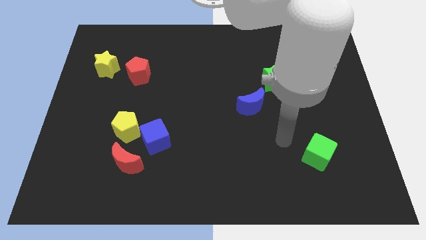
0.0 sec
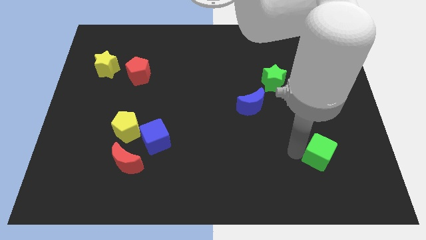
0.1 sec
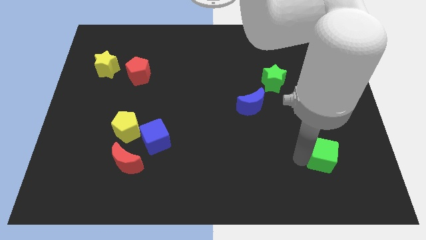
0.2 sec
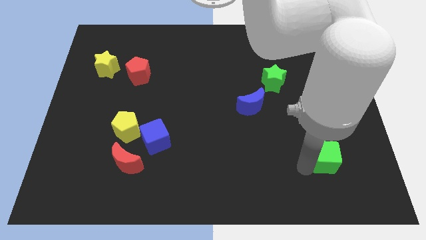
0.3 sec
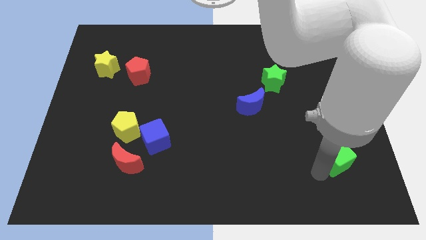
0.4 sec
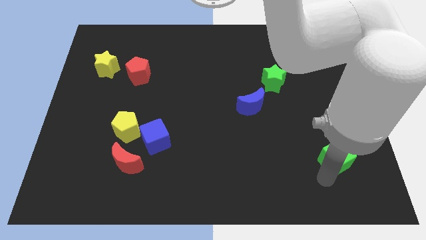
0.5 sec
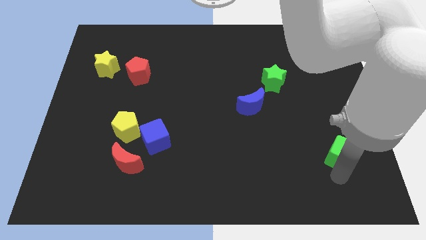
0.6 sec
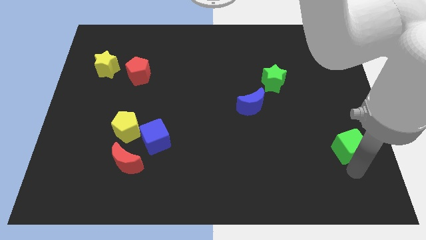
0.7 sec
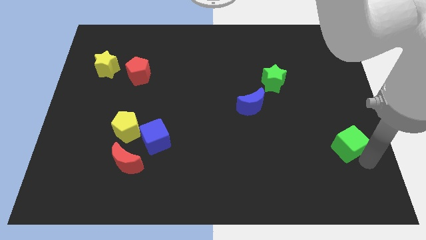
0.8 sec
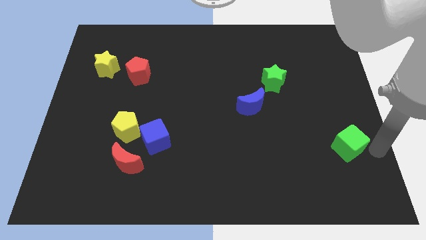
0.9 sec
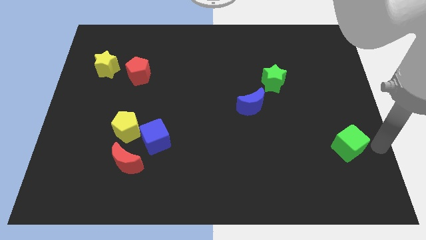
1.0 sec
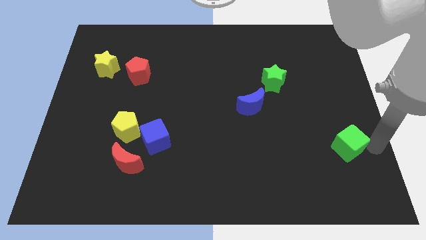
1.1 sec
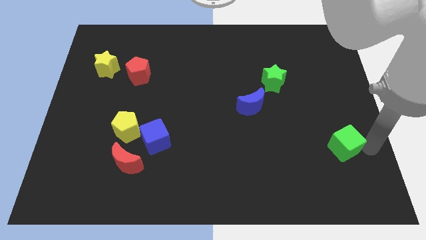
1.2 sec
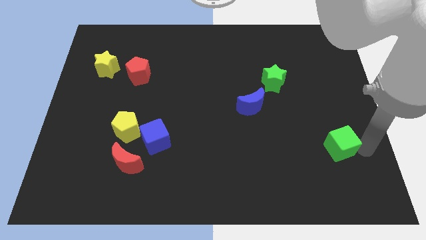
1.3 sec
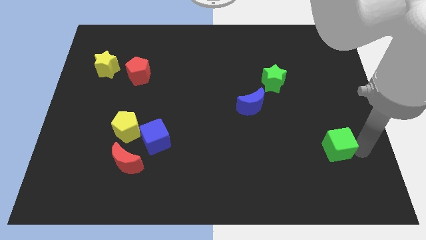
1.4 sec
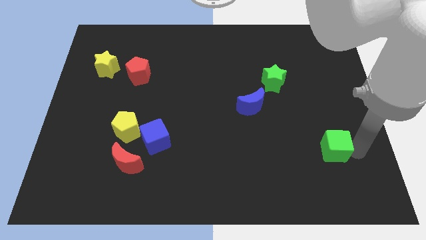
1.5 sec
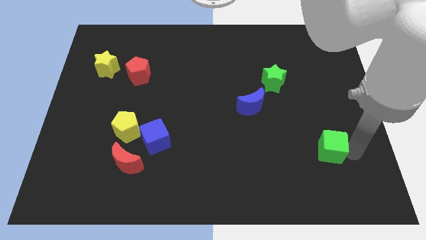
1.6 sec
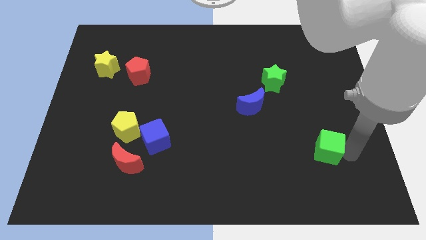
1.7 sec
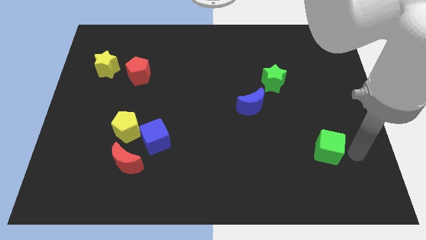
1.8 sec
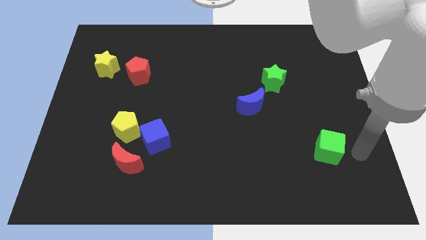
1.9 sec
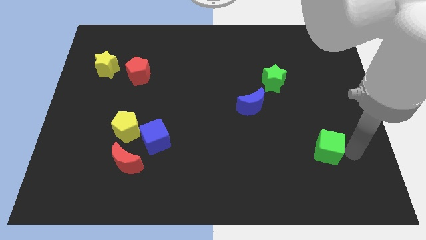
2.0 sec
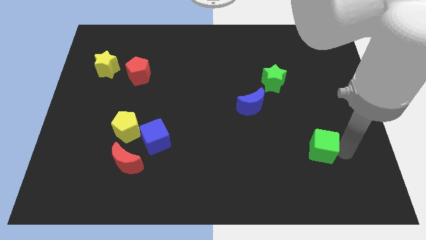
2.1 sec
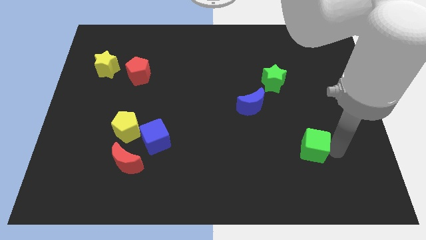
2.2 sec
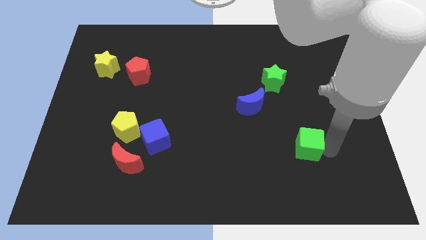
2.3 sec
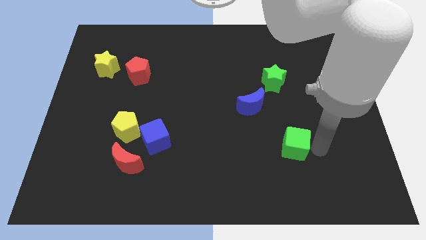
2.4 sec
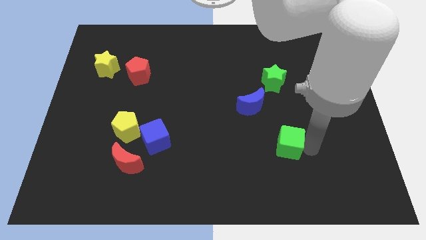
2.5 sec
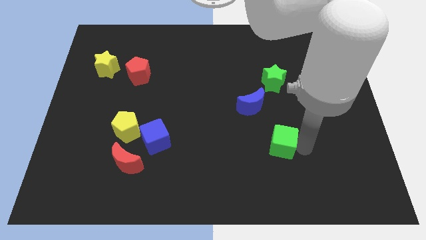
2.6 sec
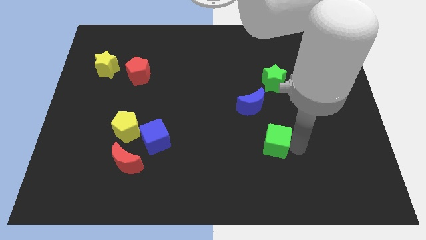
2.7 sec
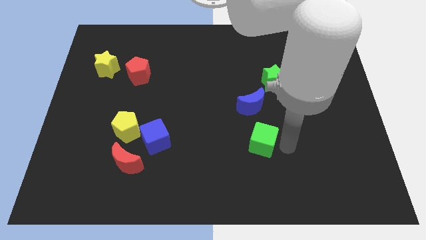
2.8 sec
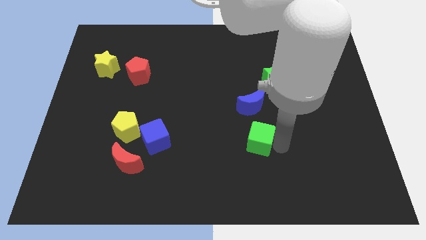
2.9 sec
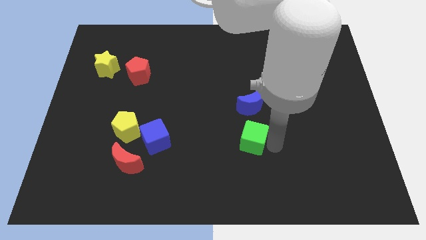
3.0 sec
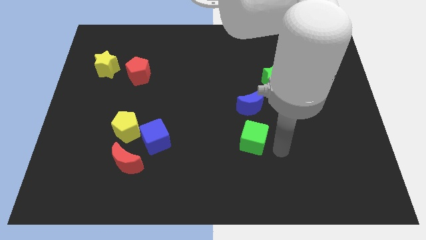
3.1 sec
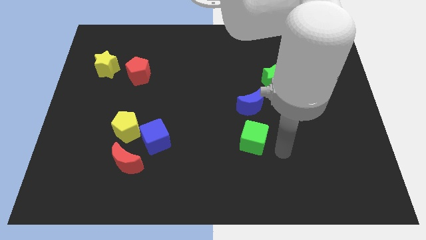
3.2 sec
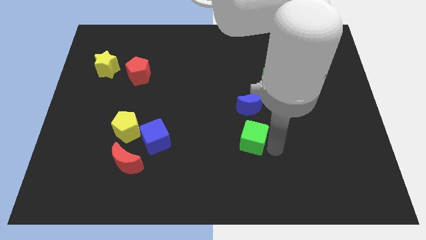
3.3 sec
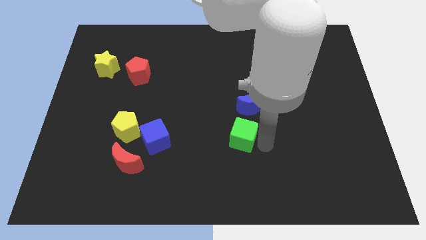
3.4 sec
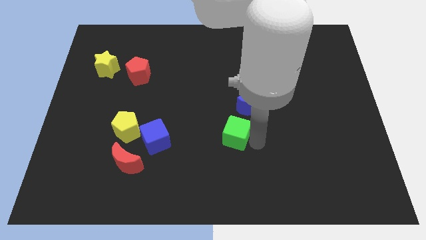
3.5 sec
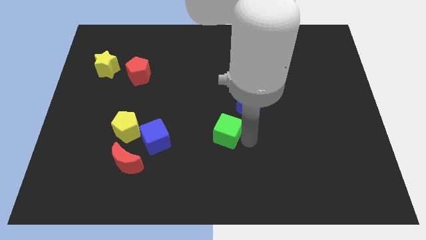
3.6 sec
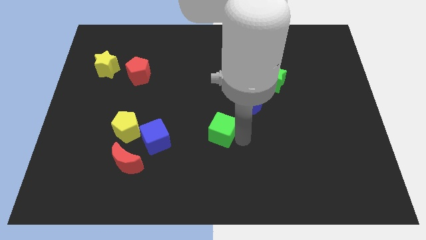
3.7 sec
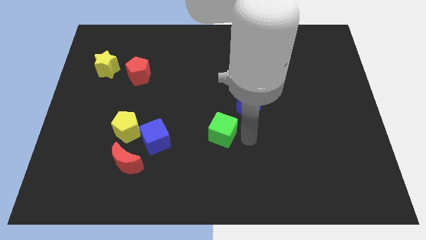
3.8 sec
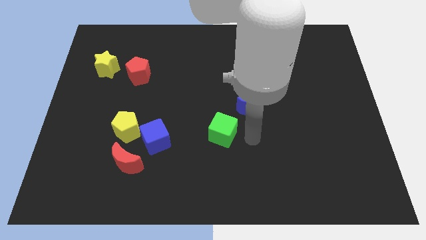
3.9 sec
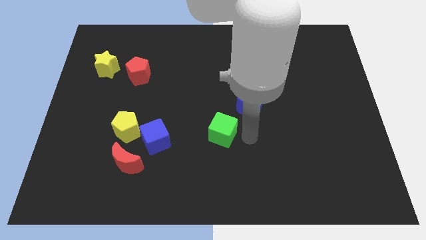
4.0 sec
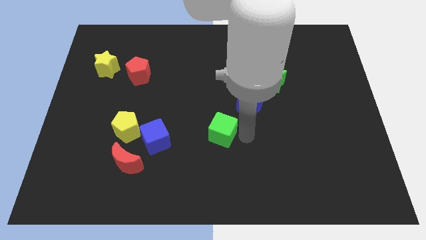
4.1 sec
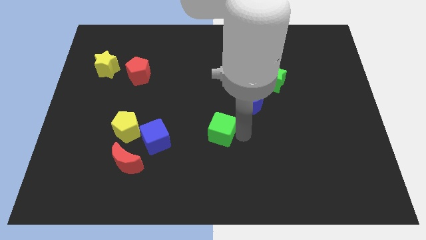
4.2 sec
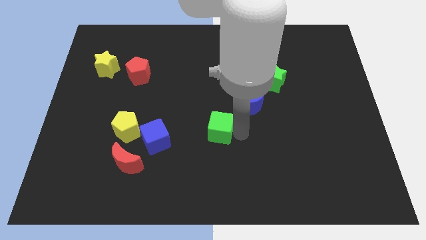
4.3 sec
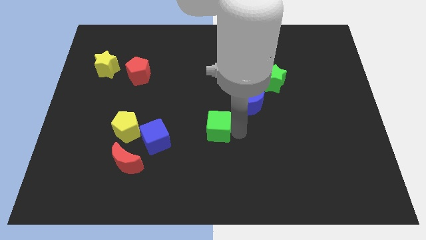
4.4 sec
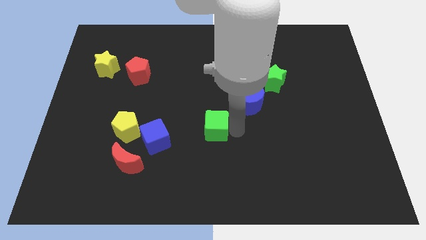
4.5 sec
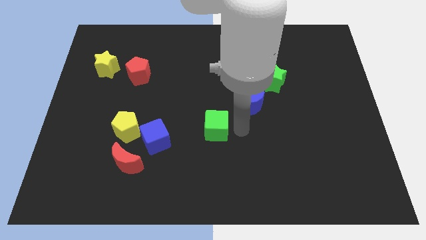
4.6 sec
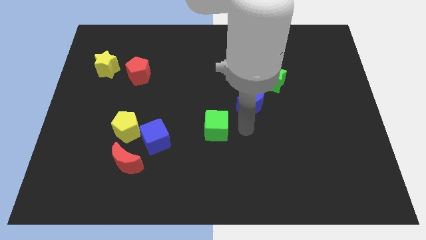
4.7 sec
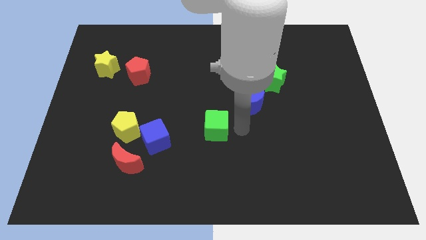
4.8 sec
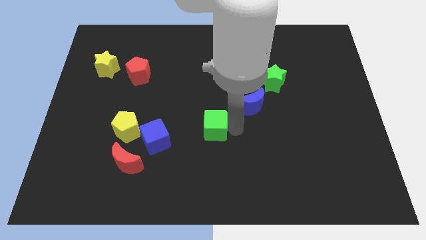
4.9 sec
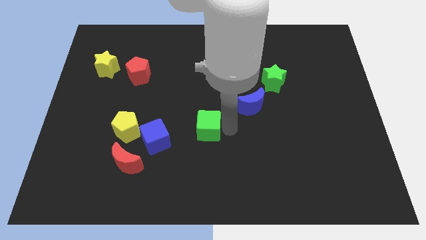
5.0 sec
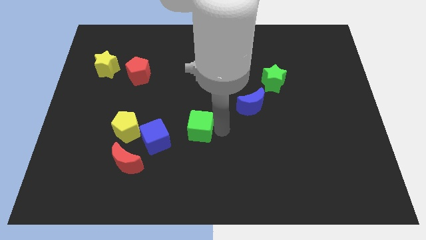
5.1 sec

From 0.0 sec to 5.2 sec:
slide the green cube diagonally up and to the right of the blue cube

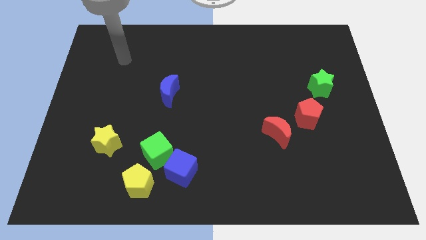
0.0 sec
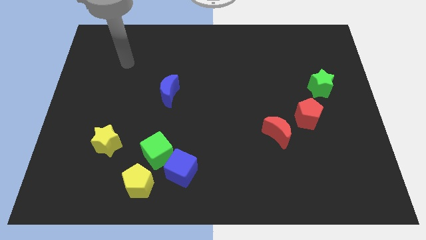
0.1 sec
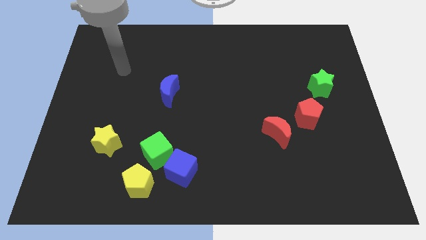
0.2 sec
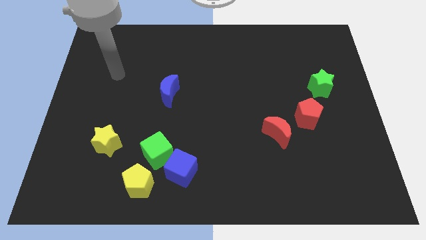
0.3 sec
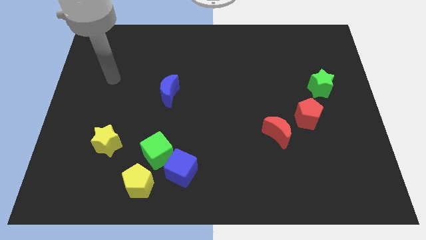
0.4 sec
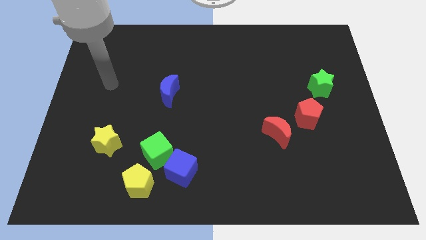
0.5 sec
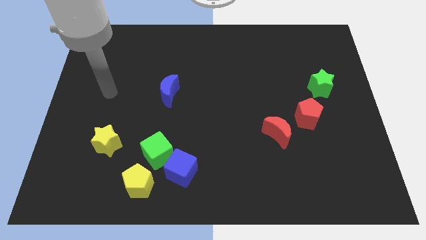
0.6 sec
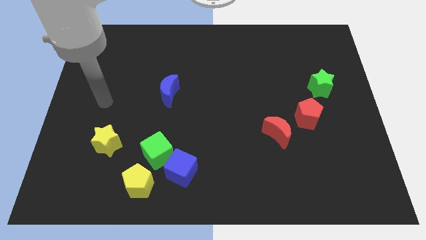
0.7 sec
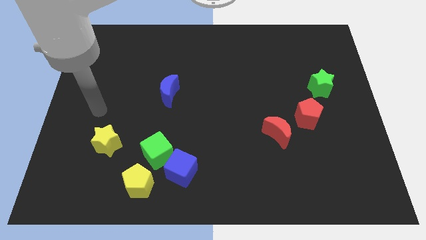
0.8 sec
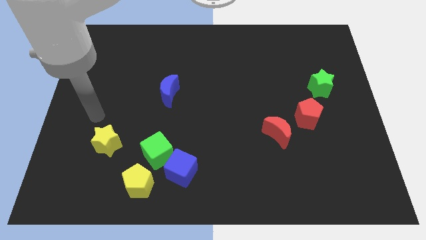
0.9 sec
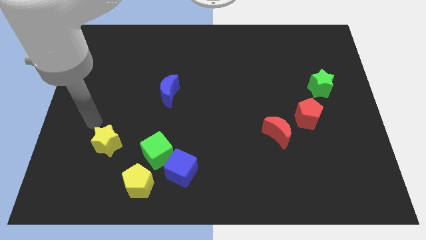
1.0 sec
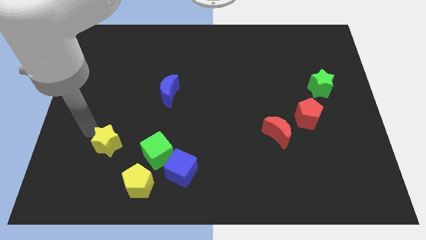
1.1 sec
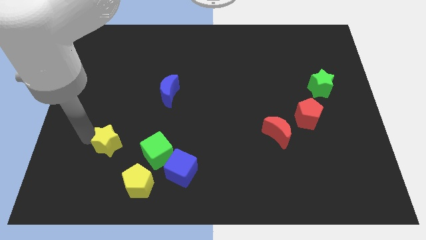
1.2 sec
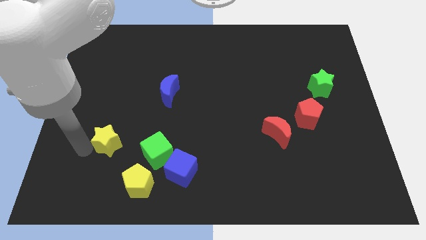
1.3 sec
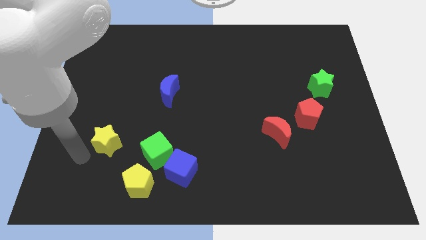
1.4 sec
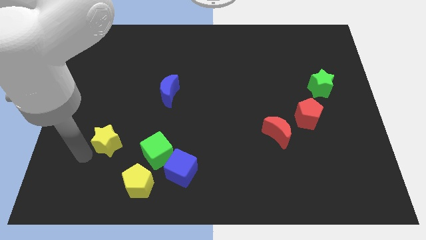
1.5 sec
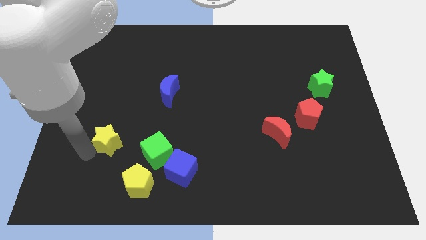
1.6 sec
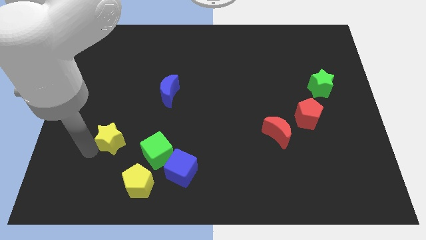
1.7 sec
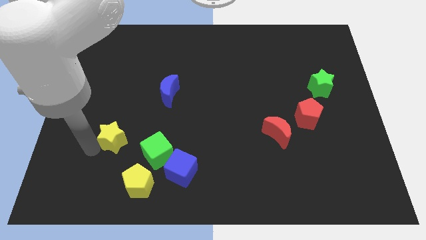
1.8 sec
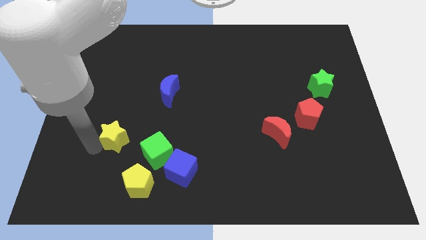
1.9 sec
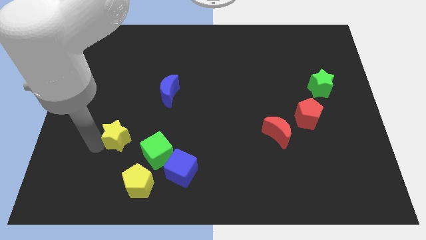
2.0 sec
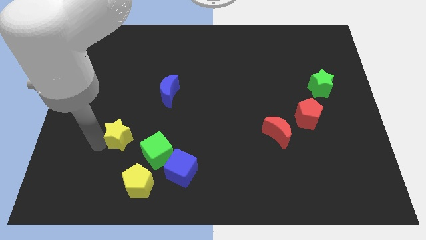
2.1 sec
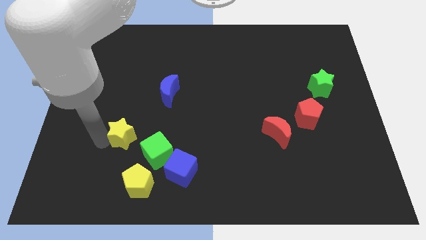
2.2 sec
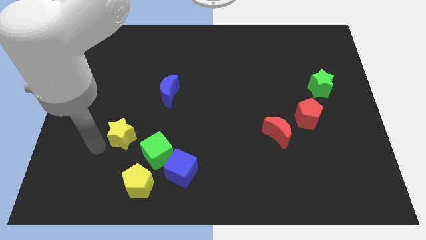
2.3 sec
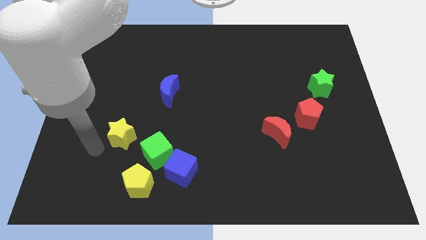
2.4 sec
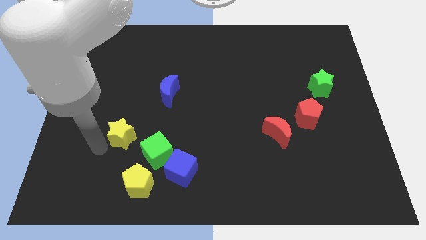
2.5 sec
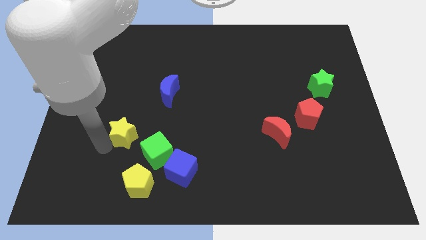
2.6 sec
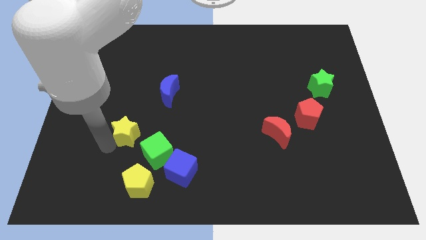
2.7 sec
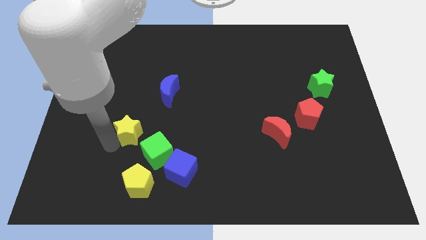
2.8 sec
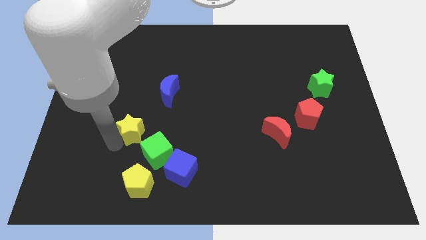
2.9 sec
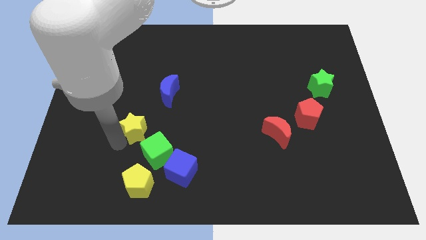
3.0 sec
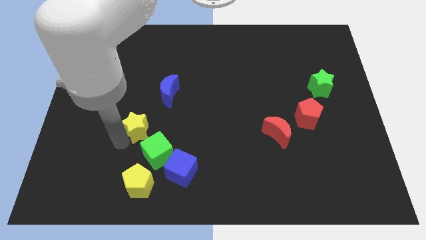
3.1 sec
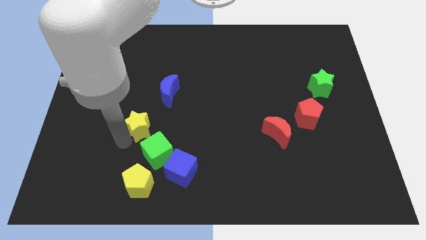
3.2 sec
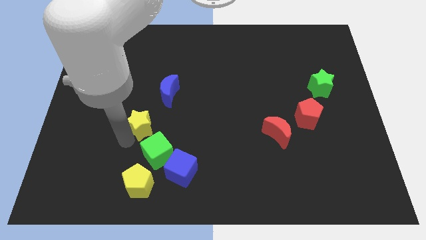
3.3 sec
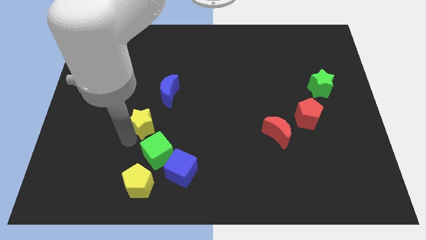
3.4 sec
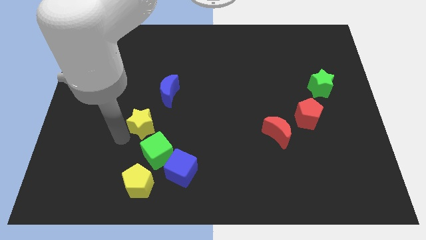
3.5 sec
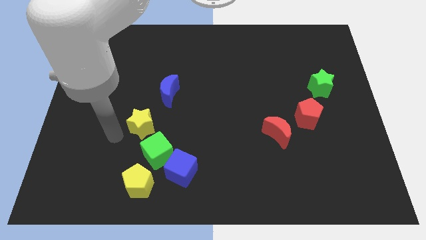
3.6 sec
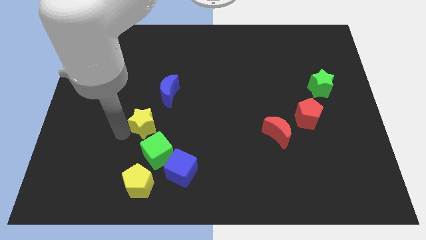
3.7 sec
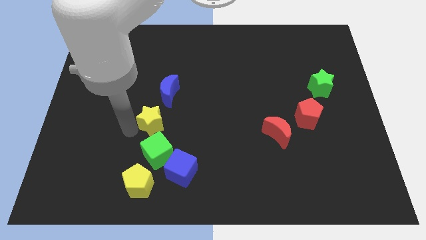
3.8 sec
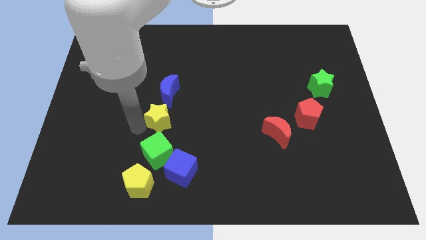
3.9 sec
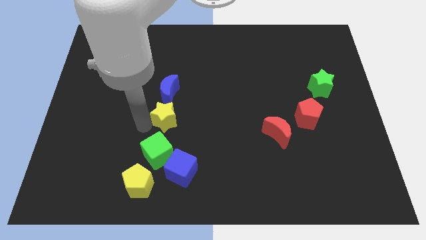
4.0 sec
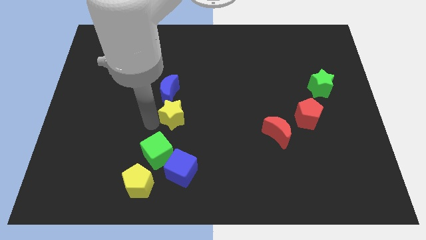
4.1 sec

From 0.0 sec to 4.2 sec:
push the yellow star to the bottom right of the blue moon
